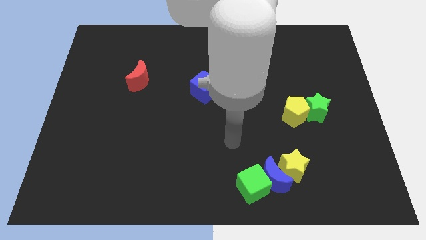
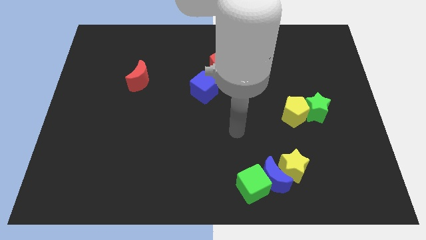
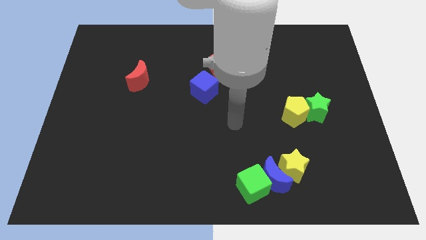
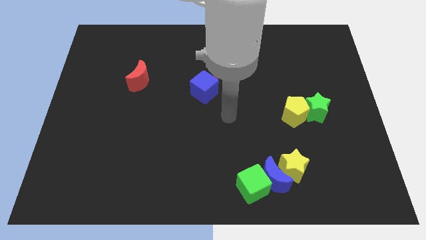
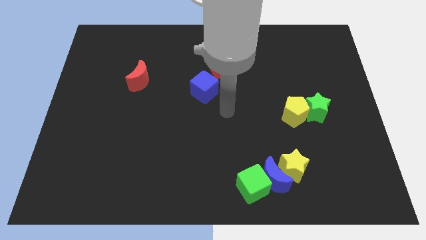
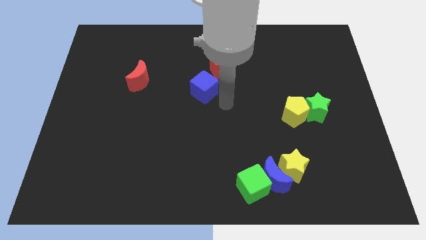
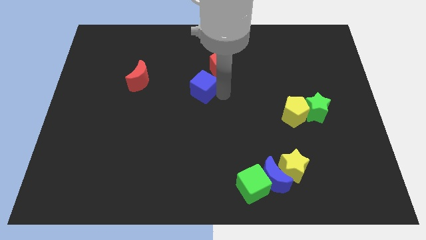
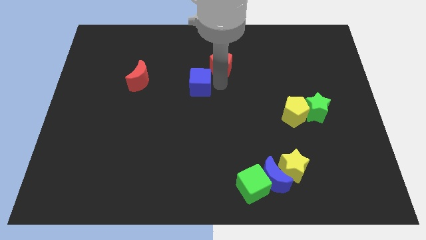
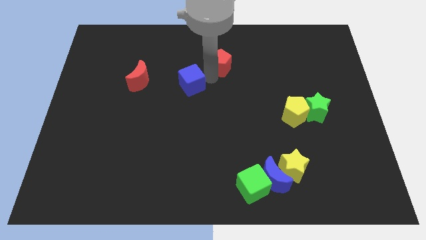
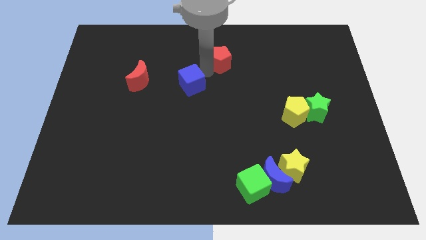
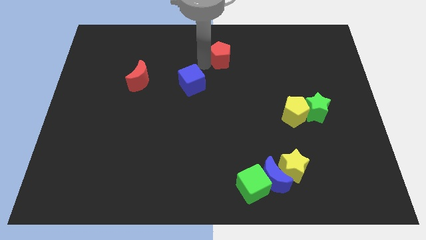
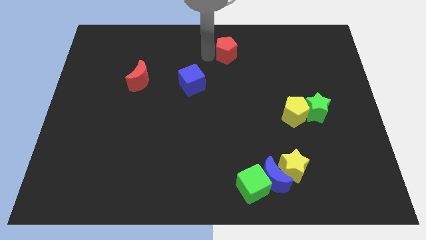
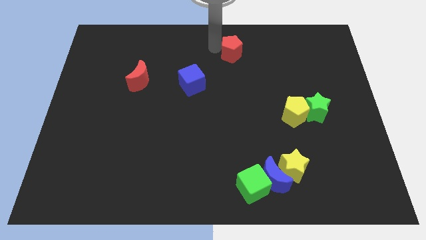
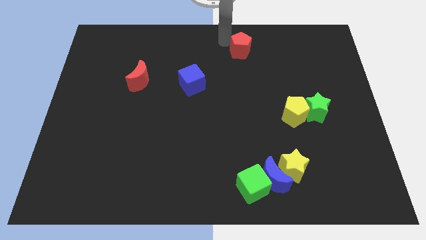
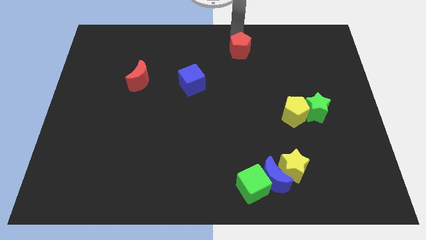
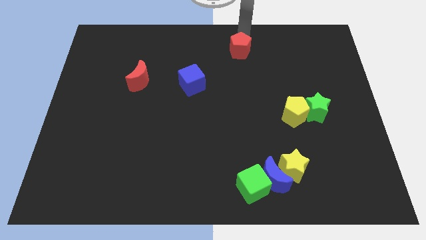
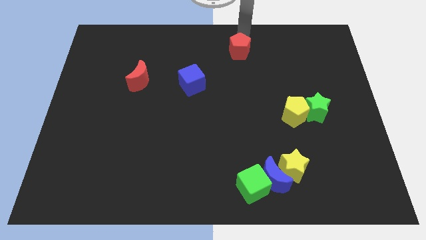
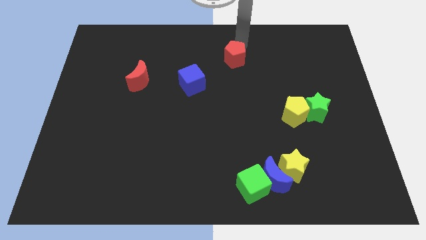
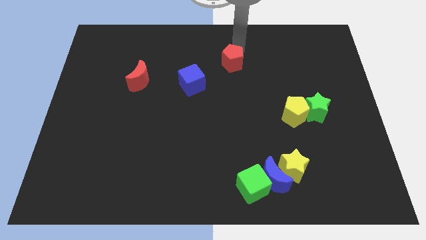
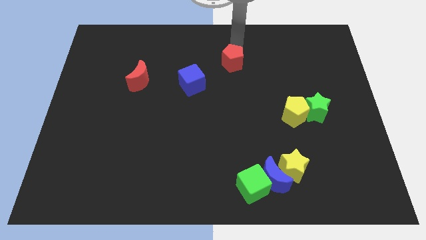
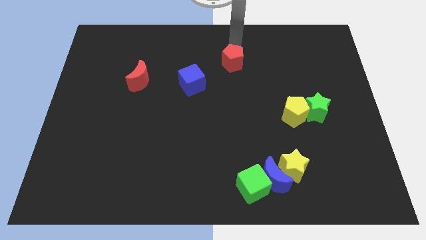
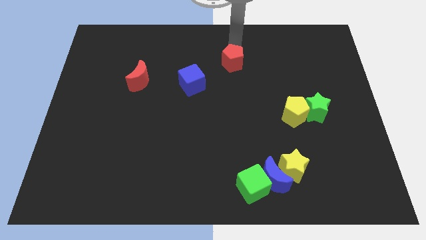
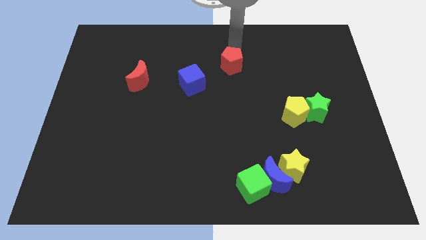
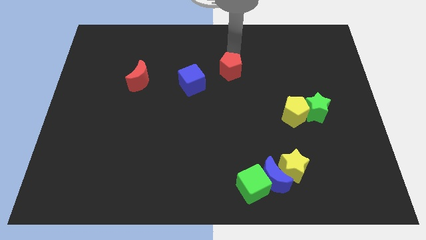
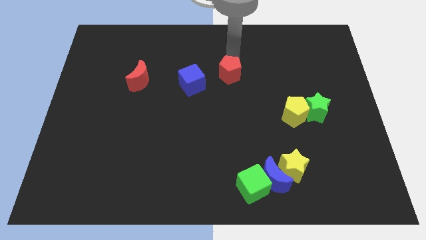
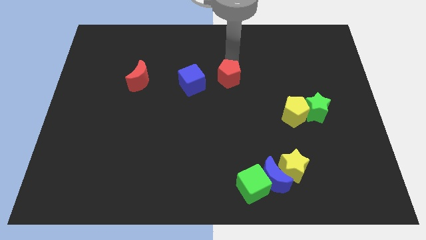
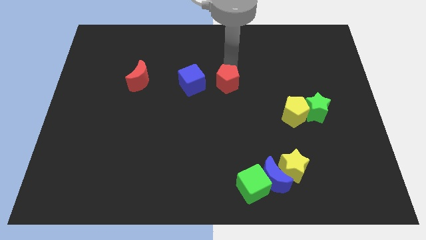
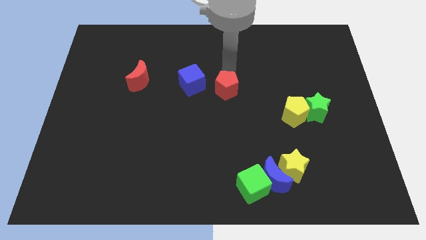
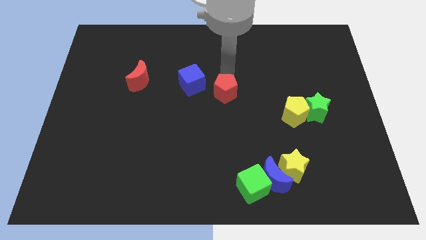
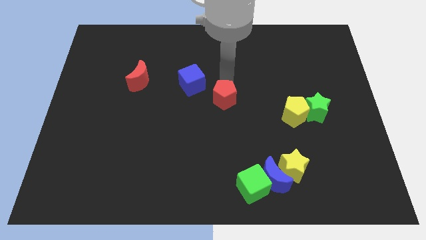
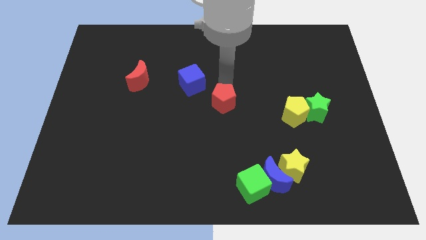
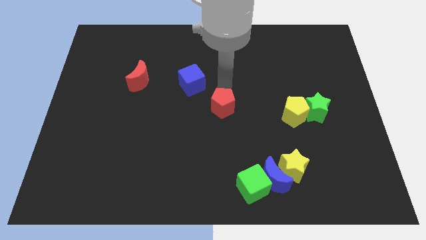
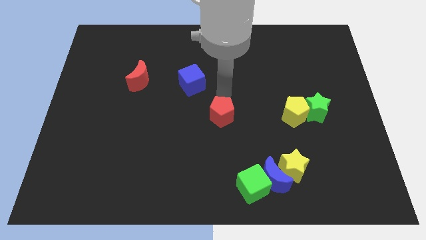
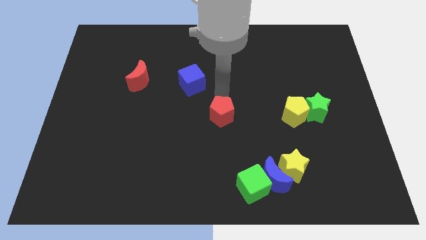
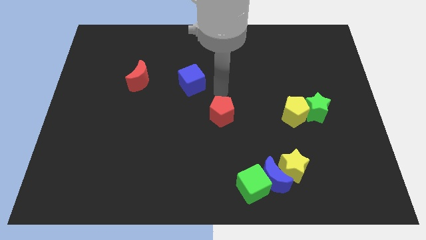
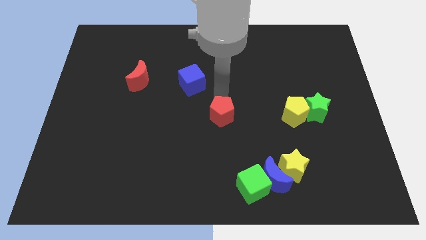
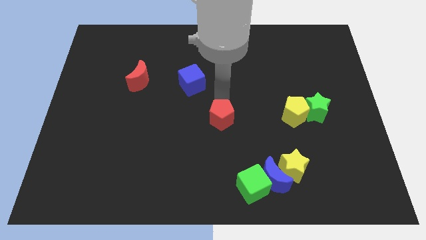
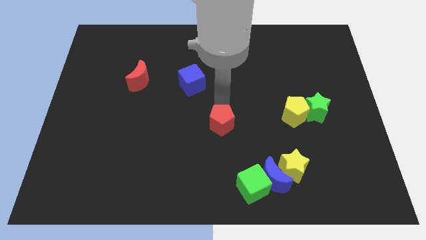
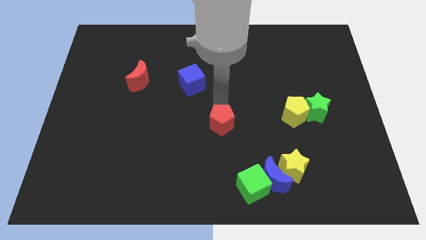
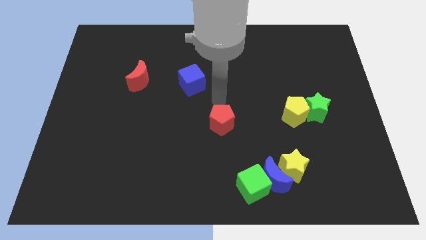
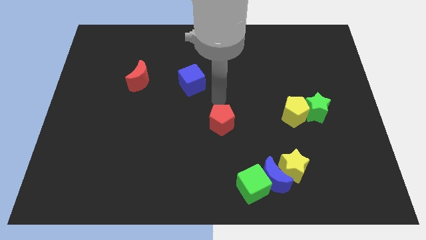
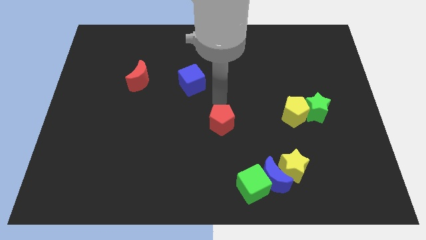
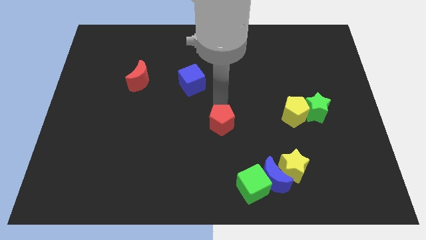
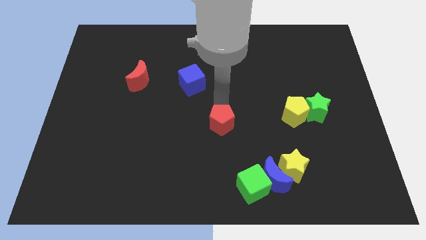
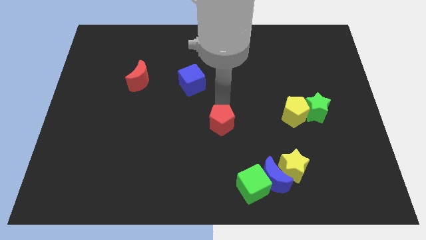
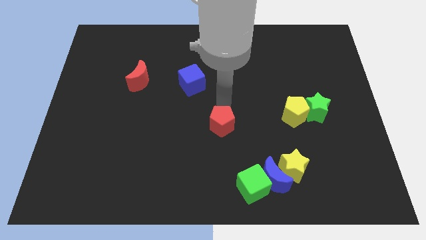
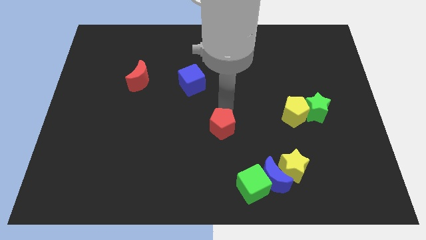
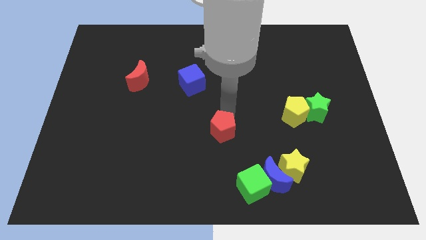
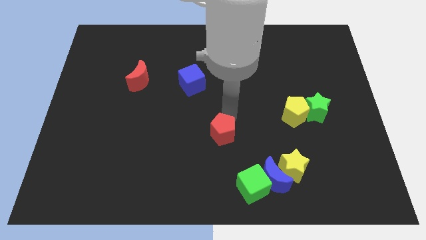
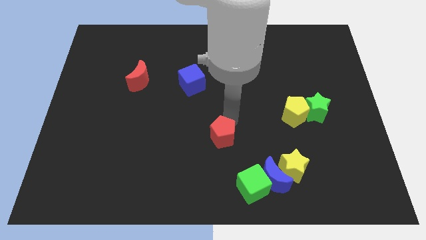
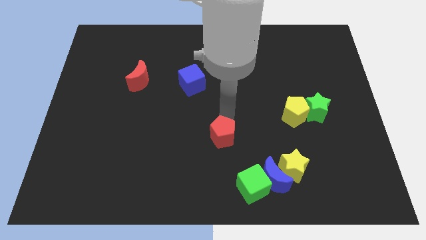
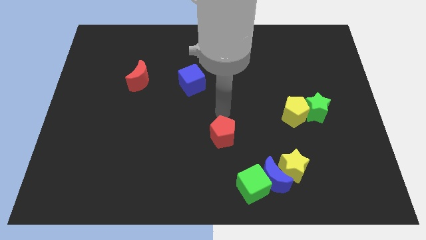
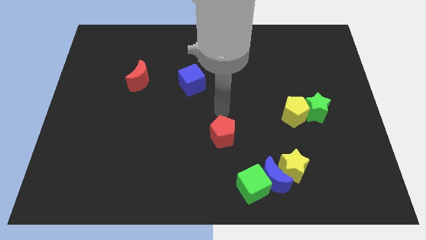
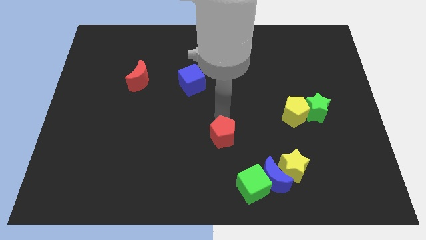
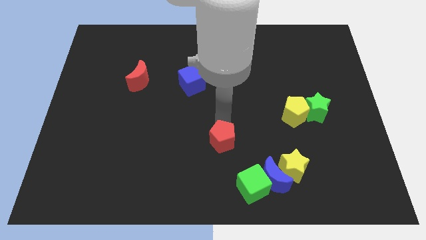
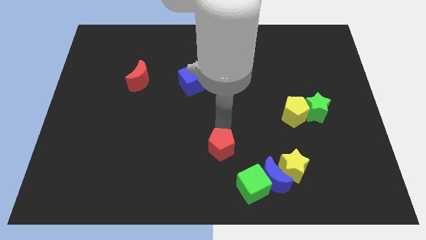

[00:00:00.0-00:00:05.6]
slide the red pentagon to the top left of the green cube

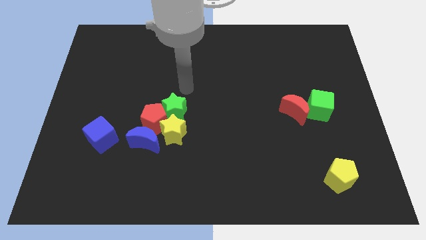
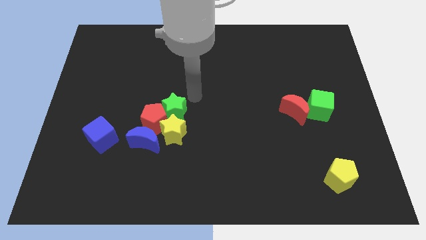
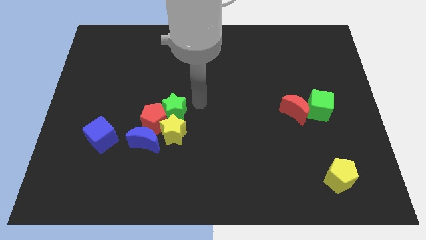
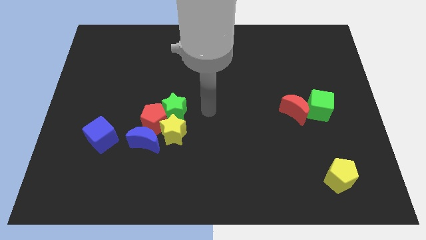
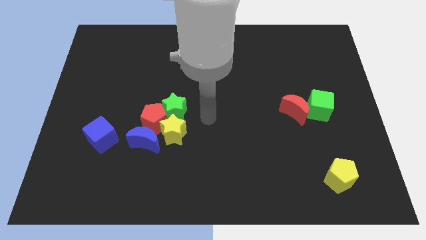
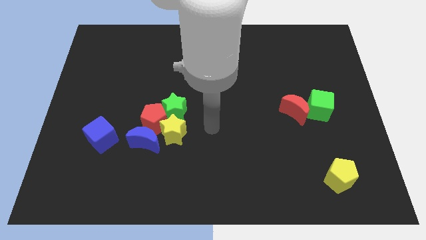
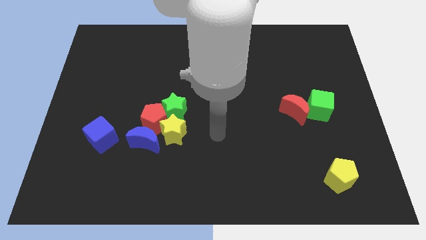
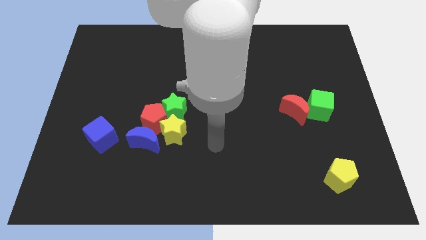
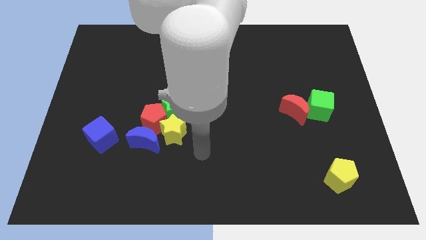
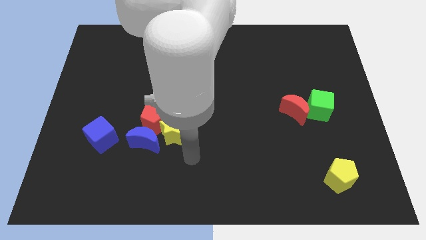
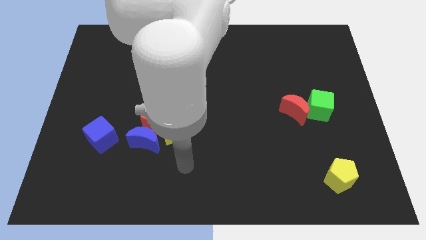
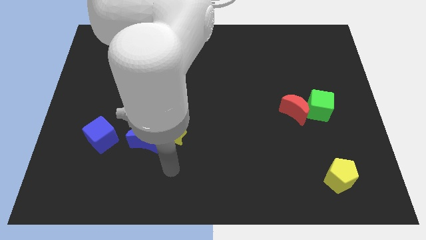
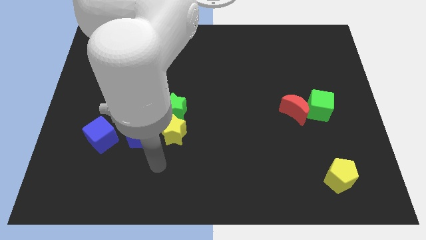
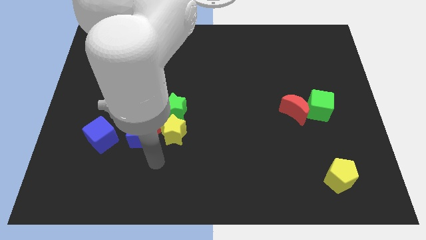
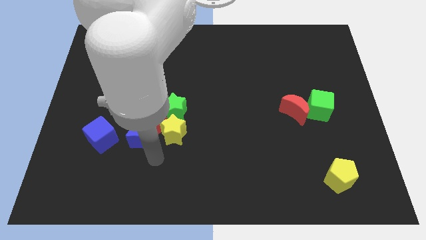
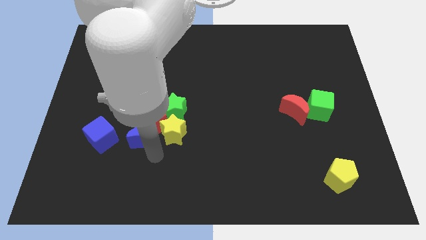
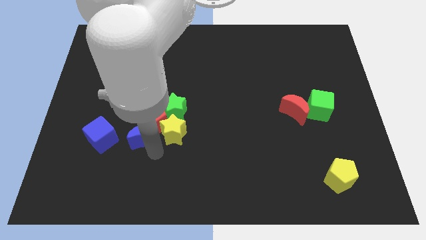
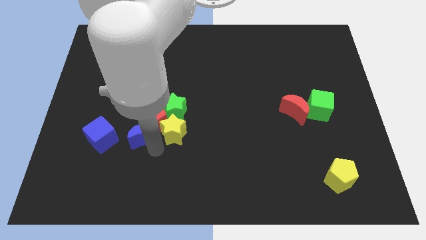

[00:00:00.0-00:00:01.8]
push the blue moon diagonally up and to the left of the yellow star
